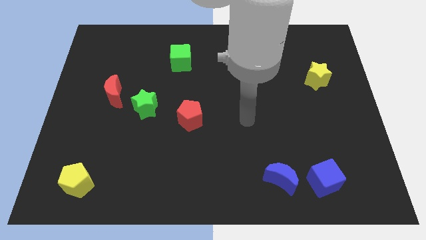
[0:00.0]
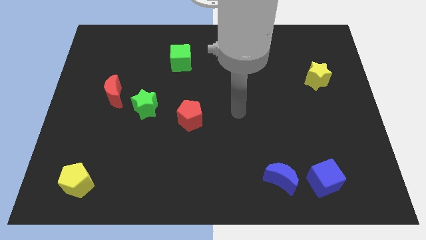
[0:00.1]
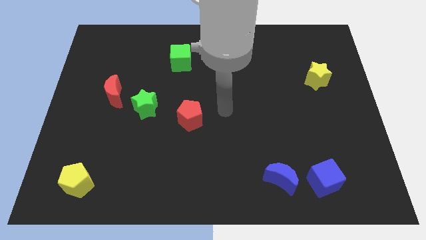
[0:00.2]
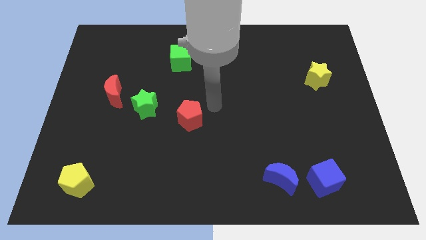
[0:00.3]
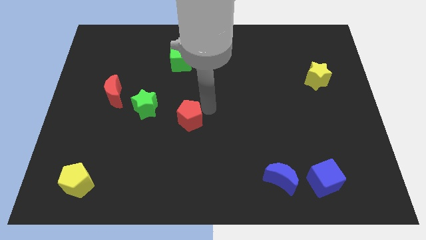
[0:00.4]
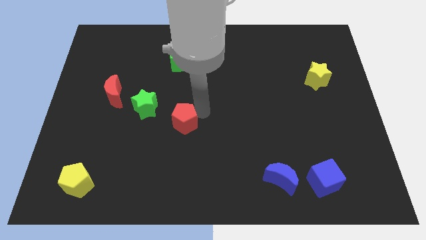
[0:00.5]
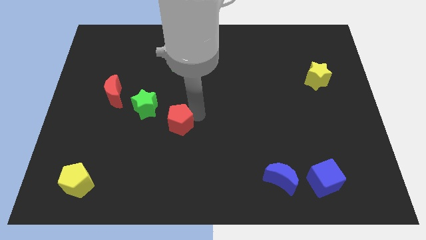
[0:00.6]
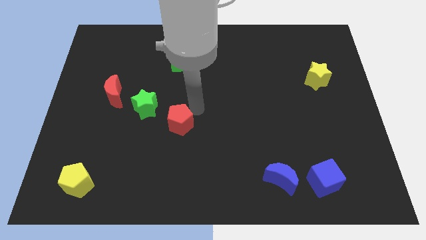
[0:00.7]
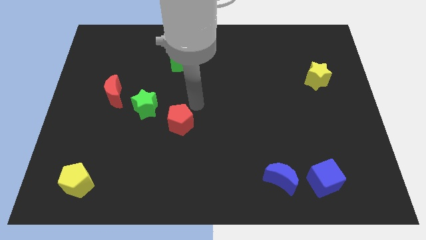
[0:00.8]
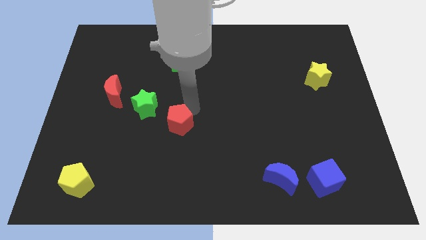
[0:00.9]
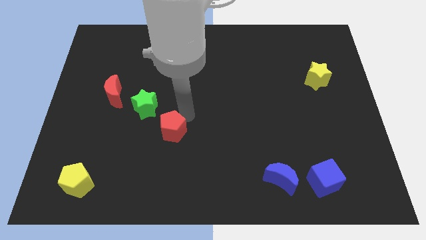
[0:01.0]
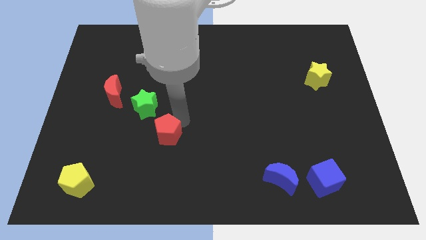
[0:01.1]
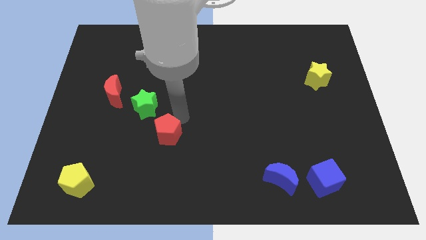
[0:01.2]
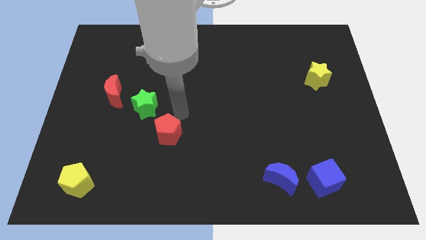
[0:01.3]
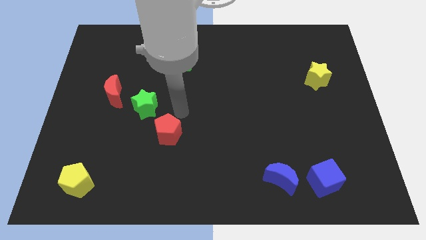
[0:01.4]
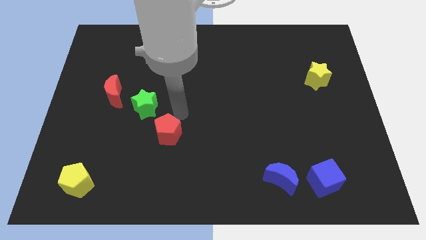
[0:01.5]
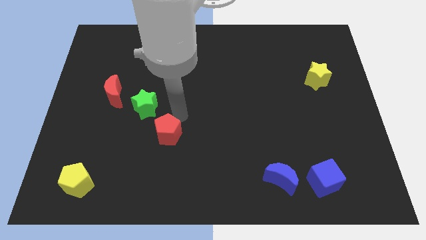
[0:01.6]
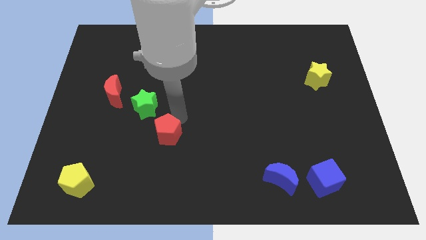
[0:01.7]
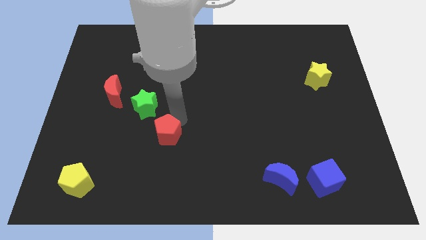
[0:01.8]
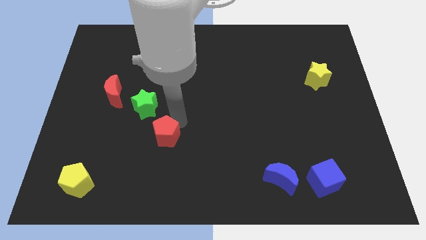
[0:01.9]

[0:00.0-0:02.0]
slide the red pentagon somewhat down and then to the left

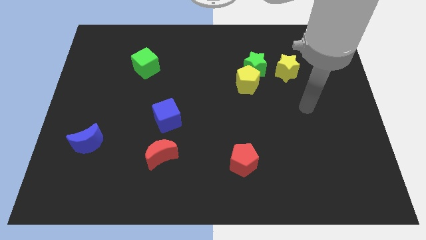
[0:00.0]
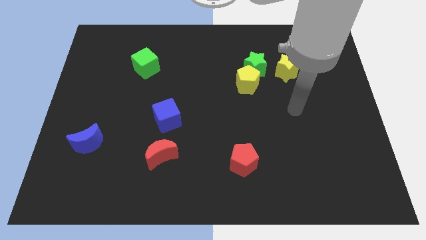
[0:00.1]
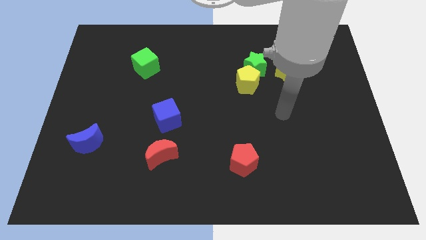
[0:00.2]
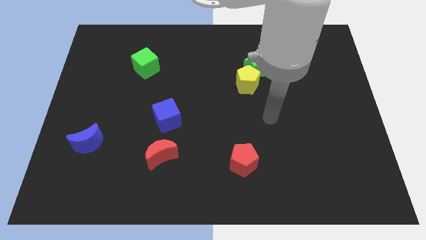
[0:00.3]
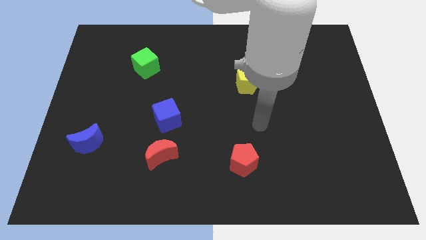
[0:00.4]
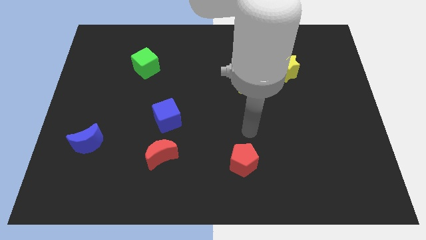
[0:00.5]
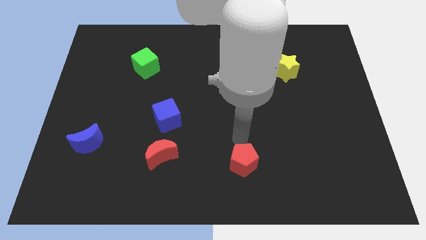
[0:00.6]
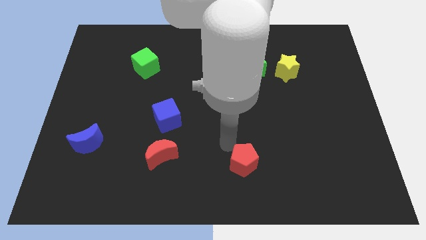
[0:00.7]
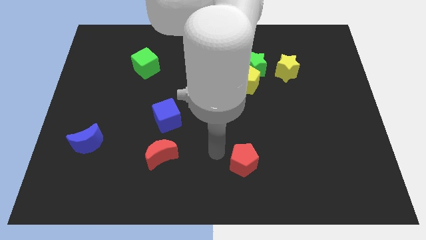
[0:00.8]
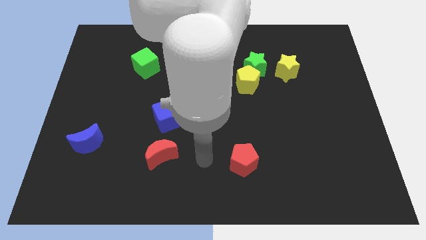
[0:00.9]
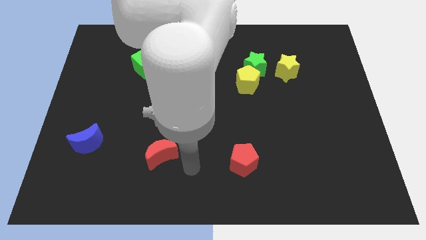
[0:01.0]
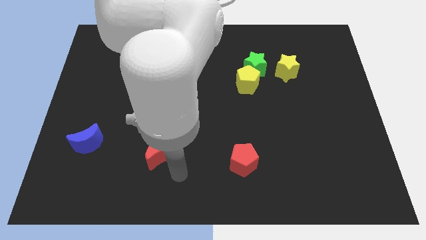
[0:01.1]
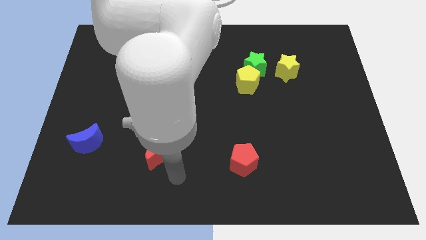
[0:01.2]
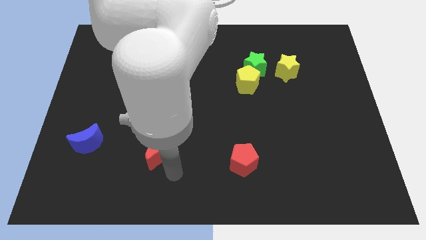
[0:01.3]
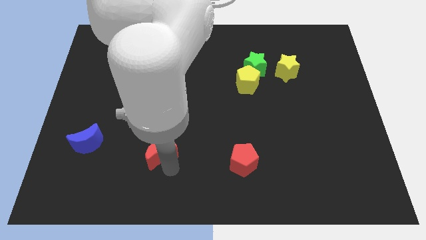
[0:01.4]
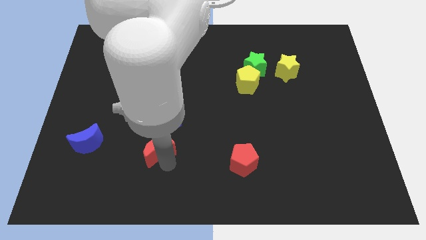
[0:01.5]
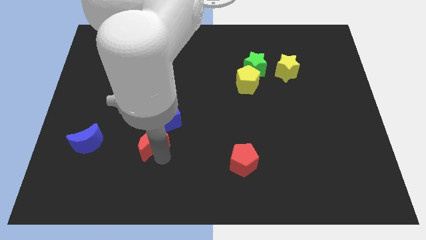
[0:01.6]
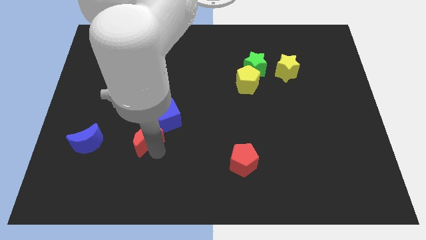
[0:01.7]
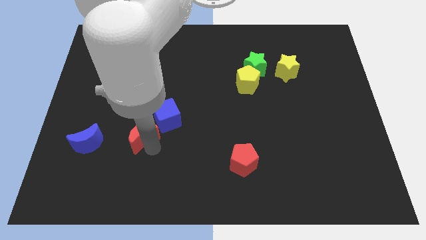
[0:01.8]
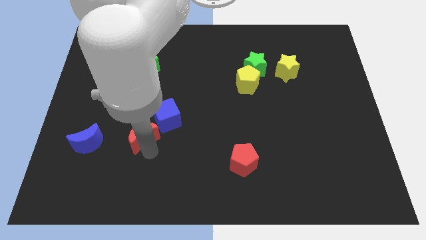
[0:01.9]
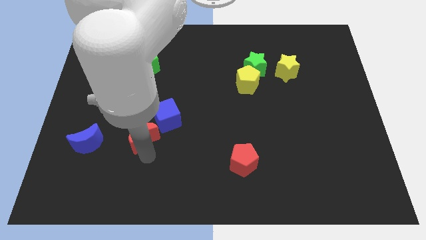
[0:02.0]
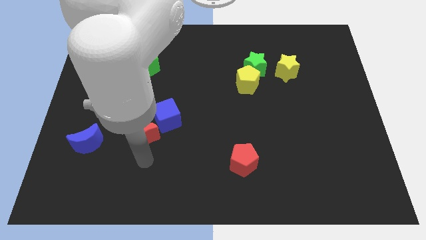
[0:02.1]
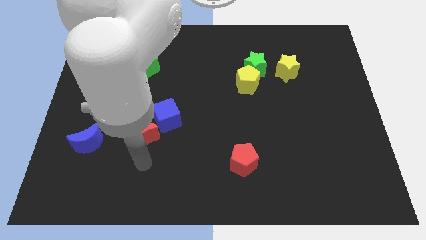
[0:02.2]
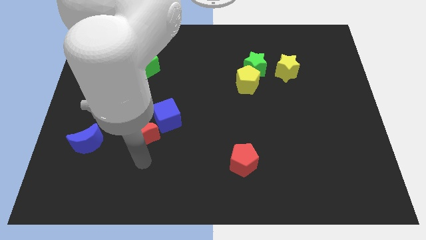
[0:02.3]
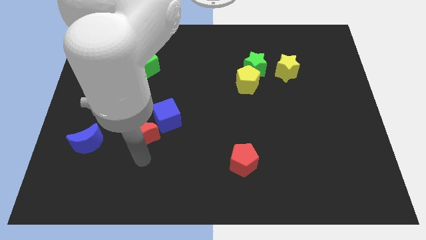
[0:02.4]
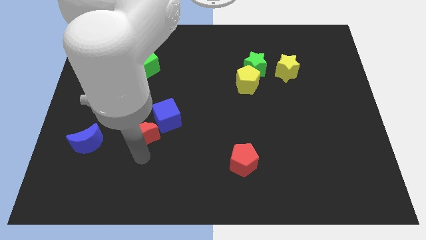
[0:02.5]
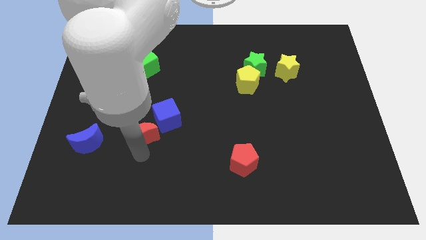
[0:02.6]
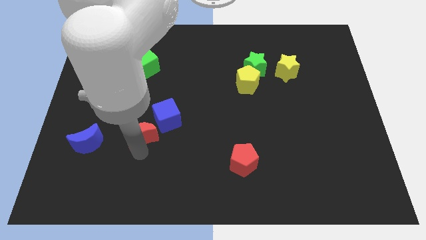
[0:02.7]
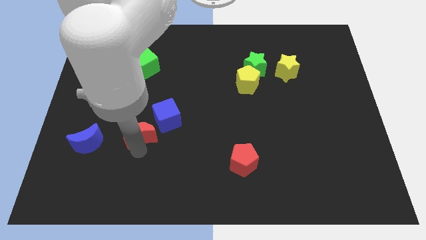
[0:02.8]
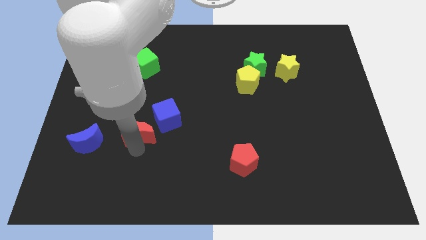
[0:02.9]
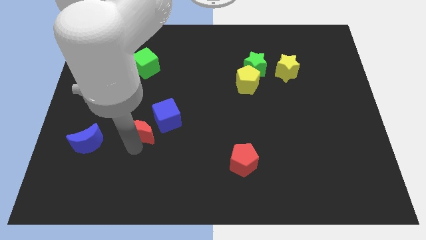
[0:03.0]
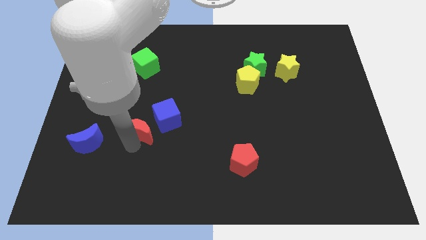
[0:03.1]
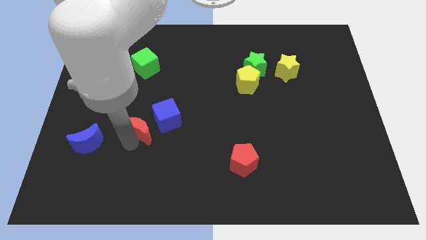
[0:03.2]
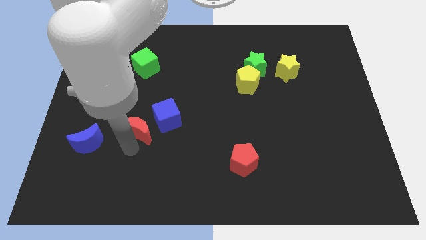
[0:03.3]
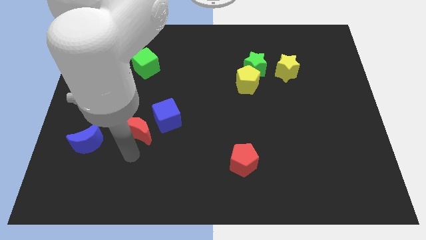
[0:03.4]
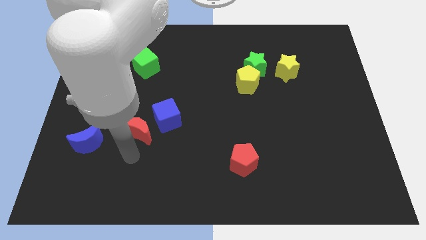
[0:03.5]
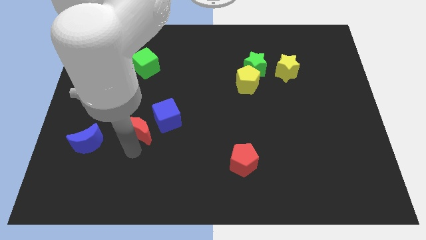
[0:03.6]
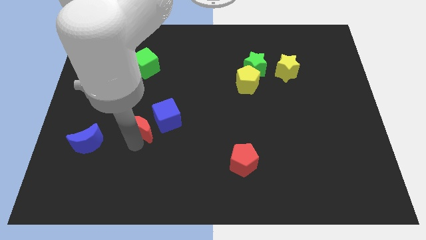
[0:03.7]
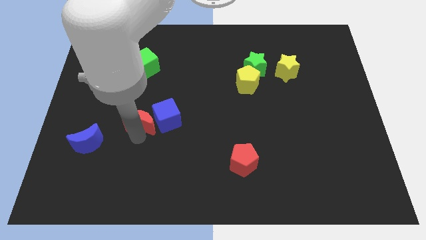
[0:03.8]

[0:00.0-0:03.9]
move the red moon a bit up

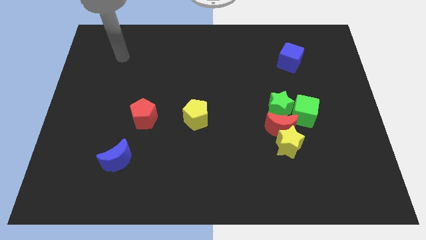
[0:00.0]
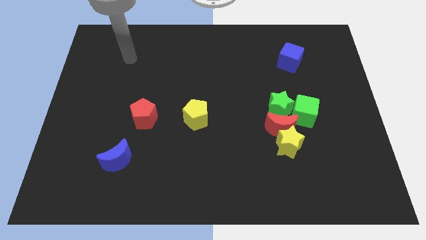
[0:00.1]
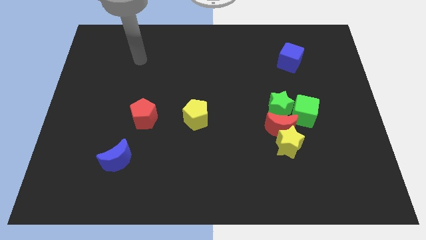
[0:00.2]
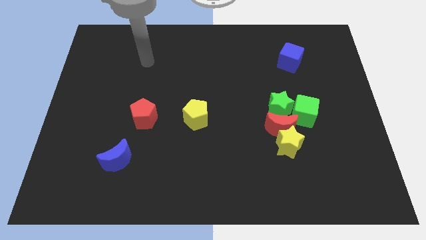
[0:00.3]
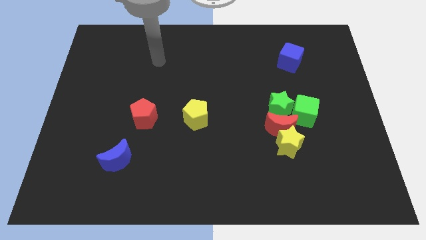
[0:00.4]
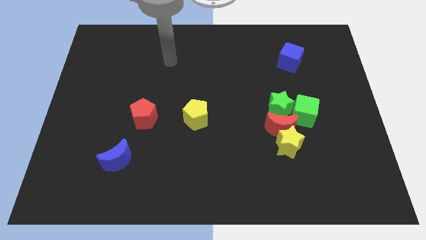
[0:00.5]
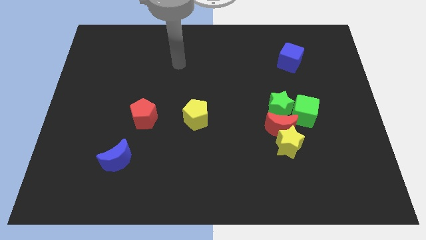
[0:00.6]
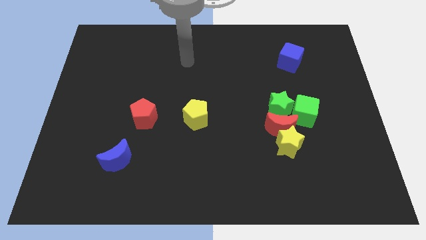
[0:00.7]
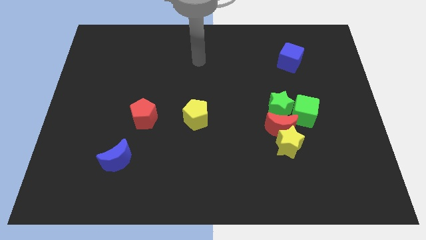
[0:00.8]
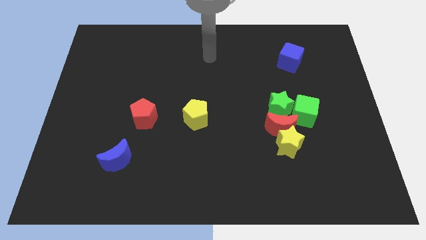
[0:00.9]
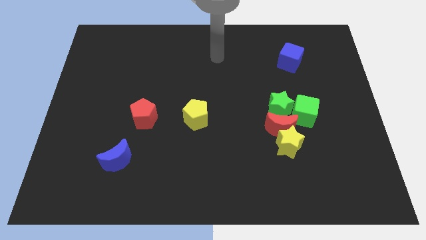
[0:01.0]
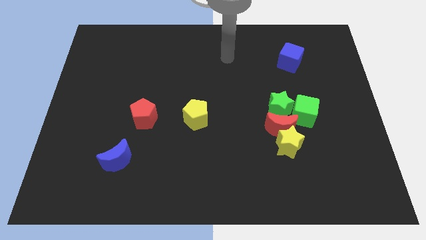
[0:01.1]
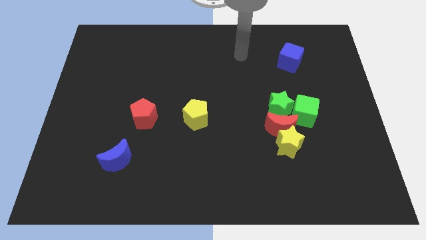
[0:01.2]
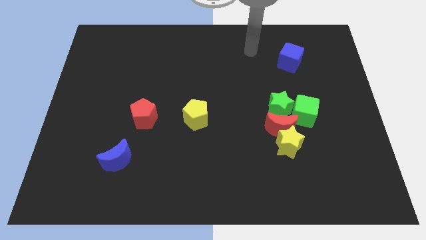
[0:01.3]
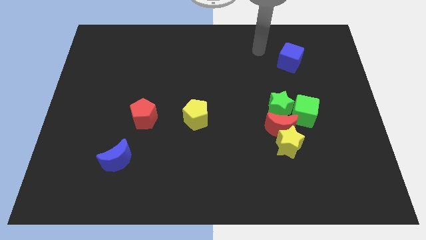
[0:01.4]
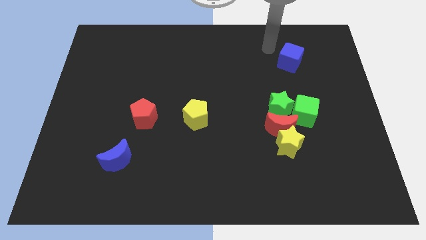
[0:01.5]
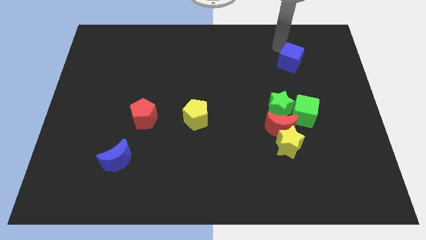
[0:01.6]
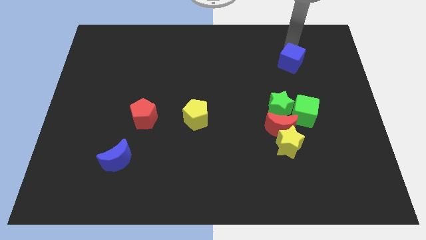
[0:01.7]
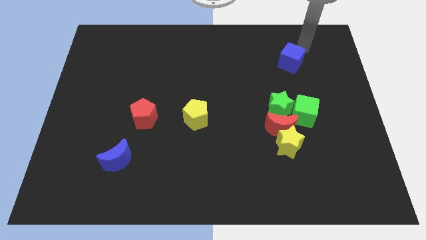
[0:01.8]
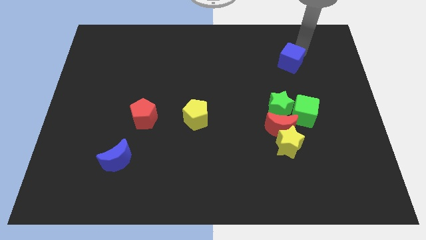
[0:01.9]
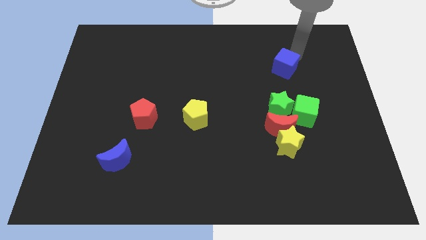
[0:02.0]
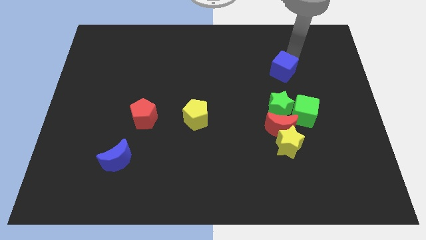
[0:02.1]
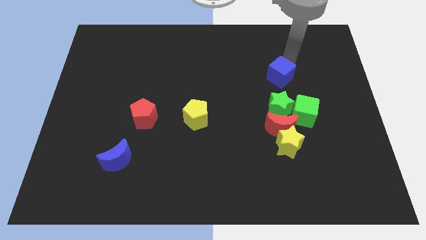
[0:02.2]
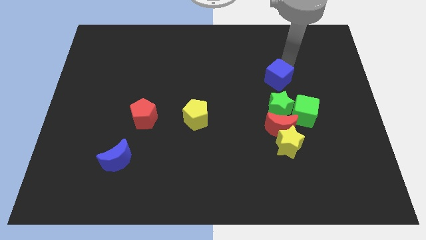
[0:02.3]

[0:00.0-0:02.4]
move the blue cube slightly down and to the left
